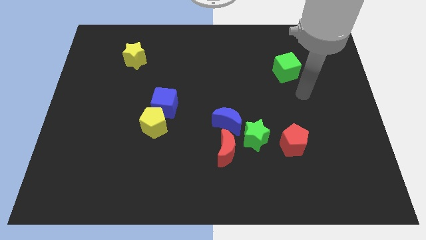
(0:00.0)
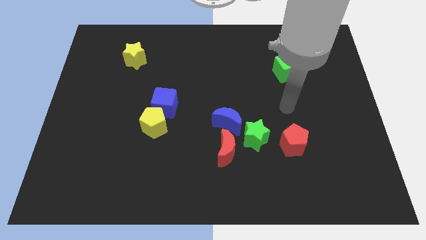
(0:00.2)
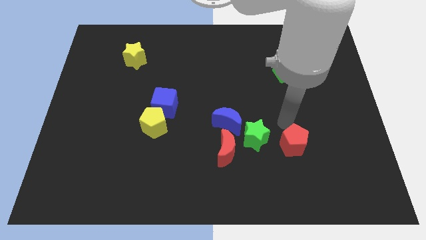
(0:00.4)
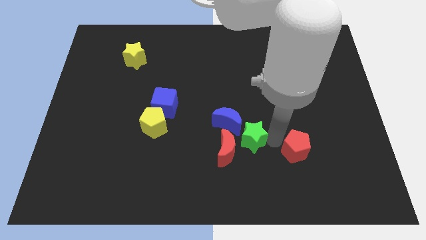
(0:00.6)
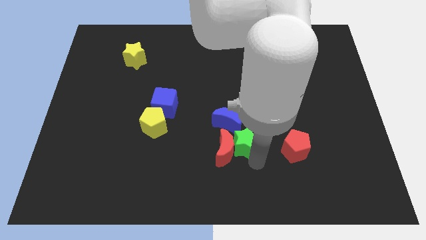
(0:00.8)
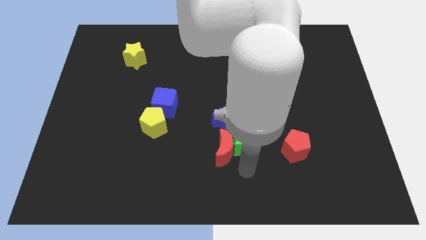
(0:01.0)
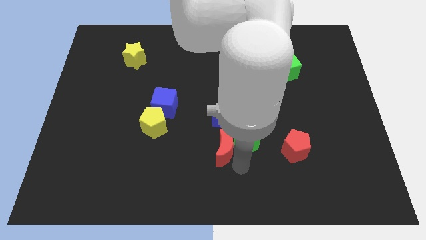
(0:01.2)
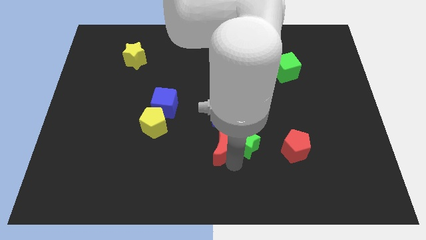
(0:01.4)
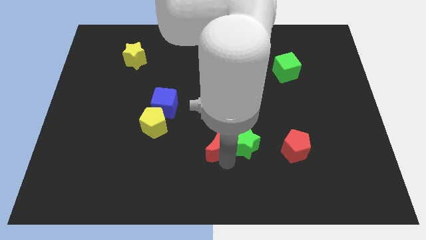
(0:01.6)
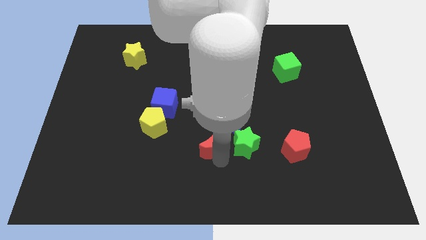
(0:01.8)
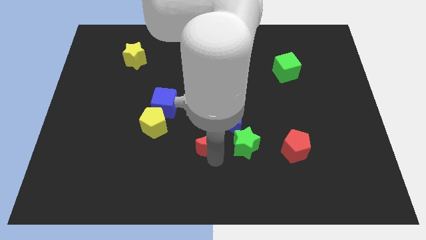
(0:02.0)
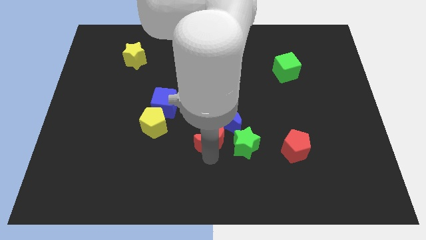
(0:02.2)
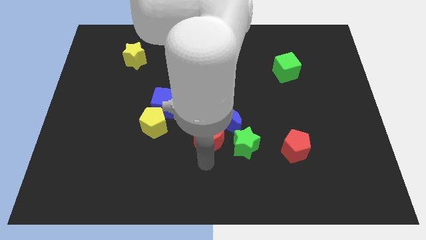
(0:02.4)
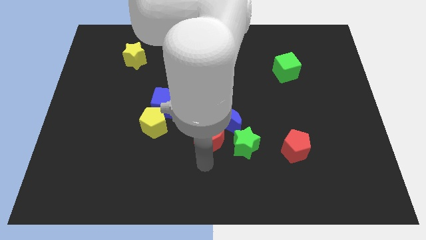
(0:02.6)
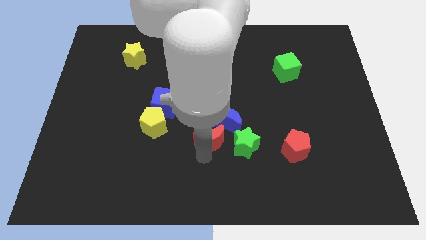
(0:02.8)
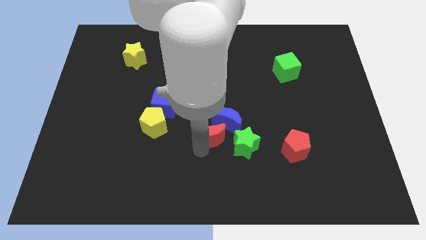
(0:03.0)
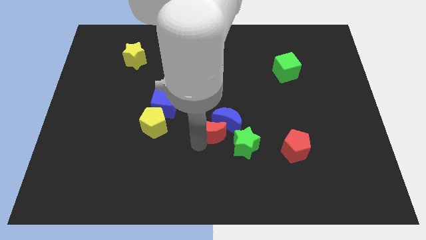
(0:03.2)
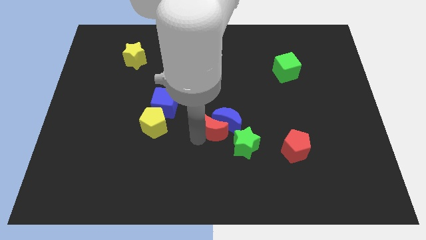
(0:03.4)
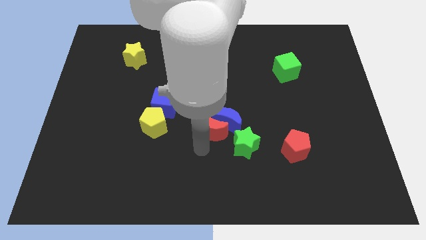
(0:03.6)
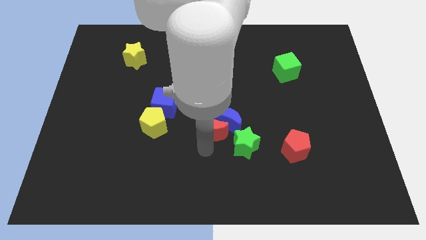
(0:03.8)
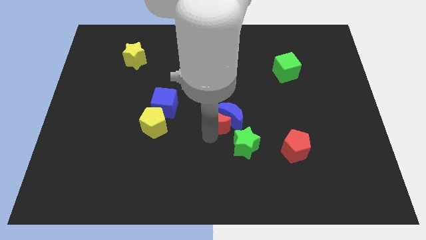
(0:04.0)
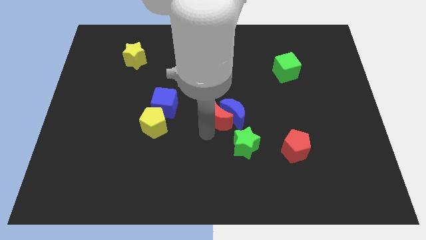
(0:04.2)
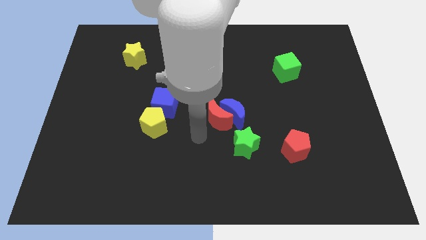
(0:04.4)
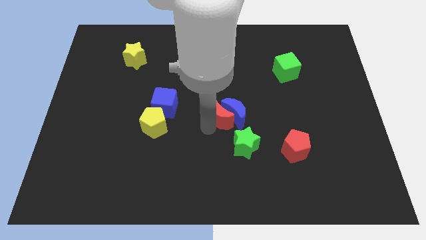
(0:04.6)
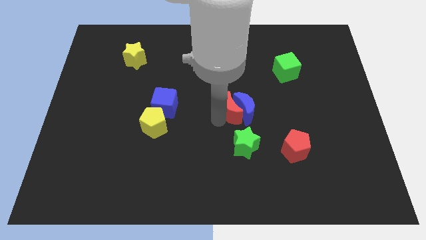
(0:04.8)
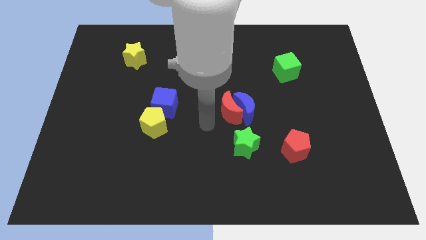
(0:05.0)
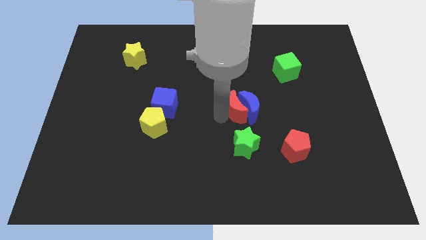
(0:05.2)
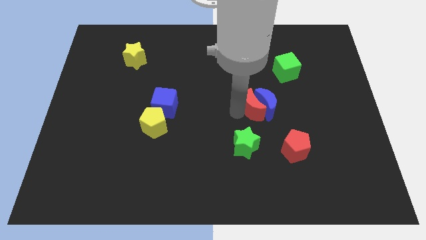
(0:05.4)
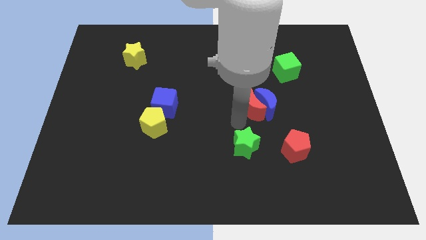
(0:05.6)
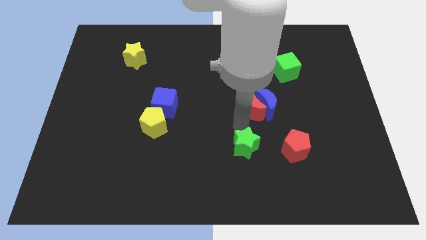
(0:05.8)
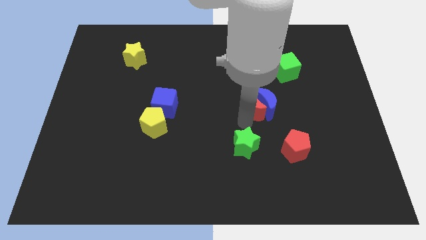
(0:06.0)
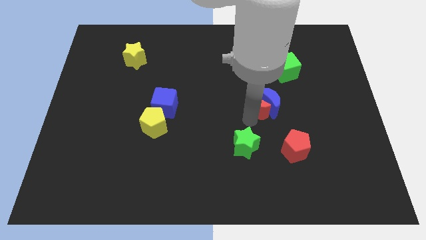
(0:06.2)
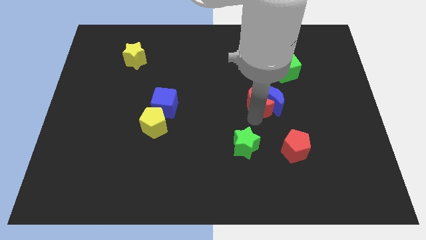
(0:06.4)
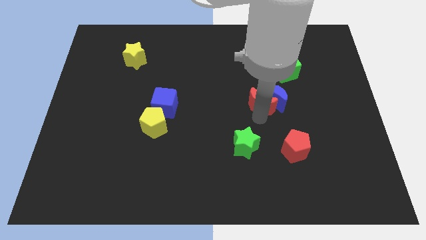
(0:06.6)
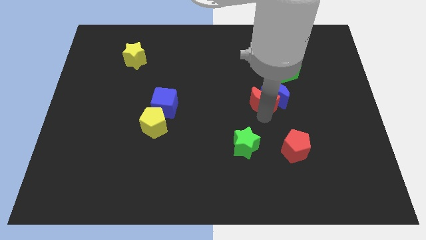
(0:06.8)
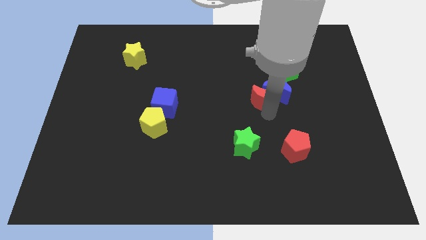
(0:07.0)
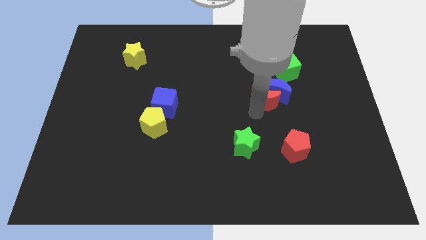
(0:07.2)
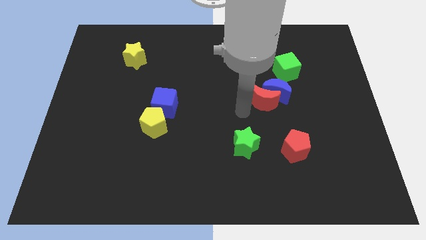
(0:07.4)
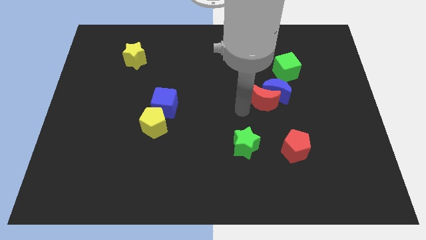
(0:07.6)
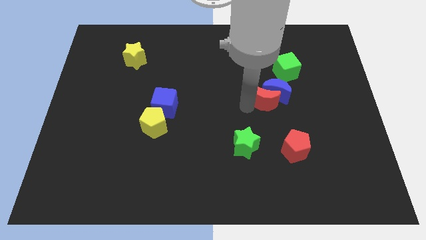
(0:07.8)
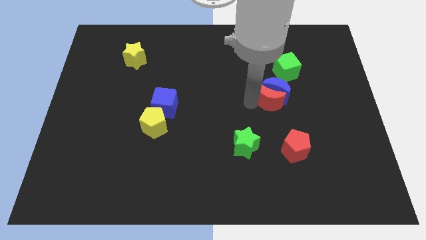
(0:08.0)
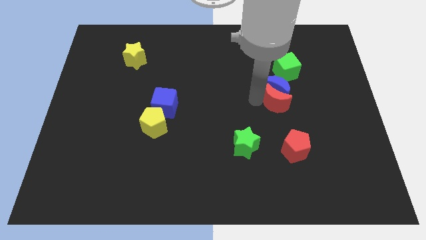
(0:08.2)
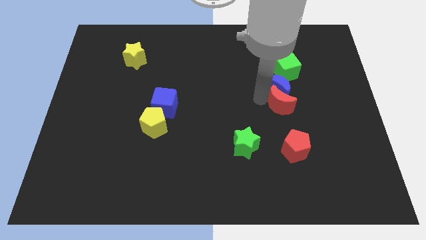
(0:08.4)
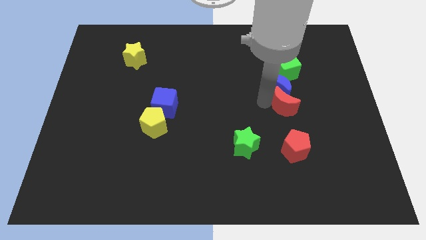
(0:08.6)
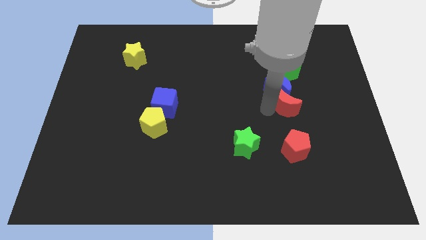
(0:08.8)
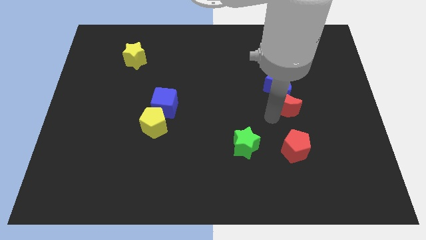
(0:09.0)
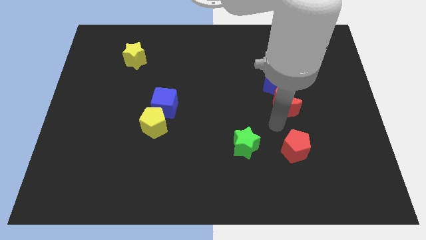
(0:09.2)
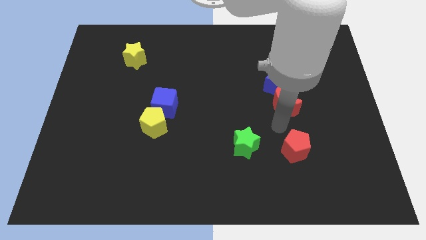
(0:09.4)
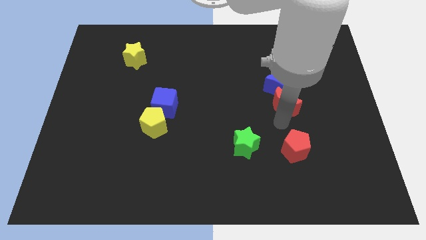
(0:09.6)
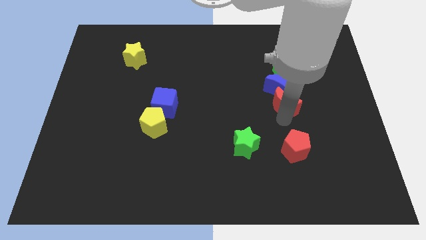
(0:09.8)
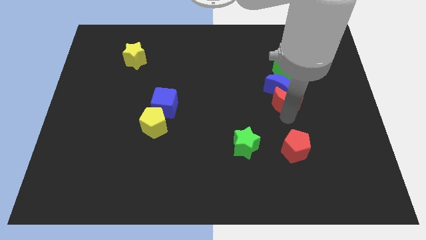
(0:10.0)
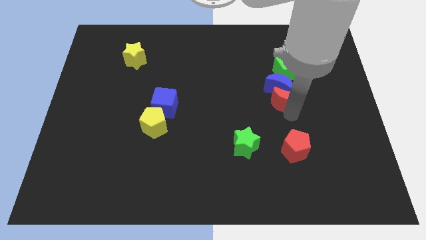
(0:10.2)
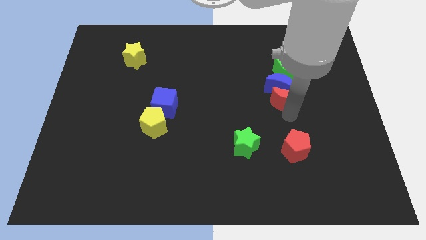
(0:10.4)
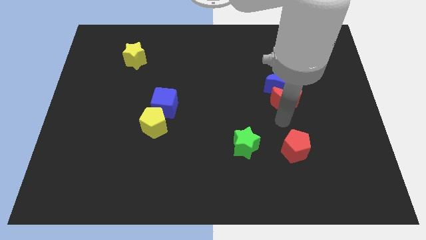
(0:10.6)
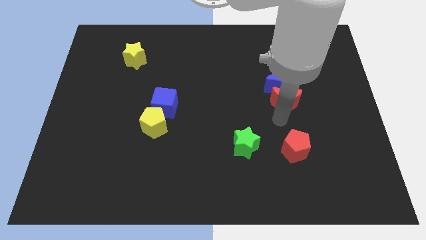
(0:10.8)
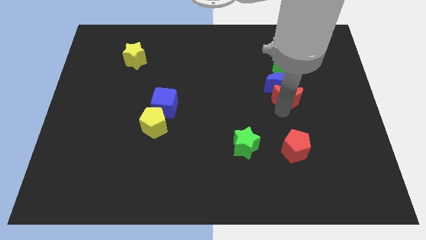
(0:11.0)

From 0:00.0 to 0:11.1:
move the red moon up and right diagonally

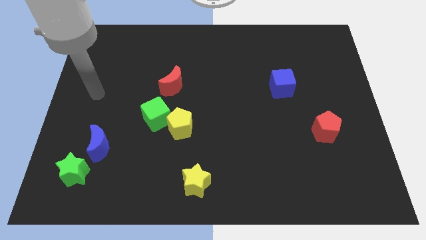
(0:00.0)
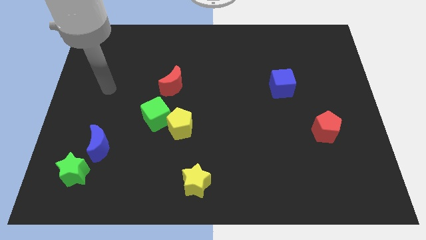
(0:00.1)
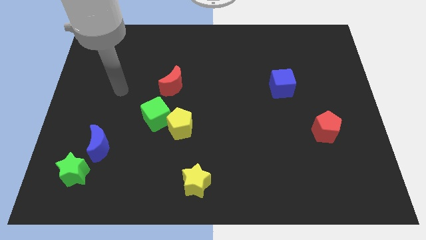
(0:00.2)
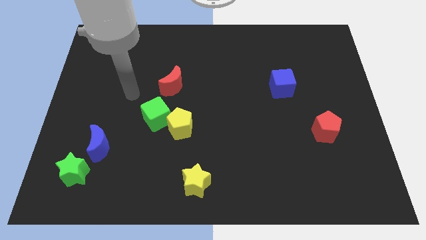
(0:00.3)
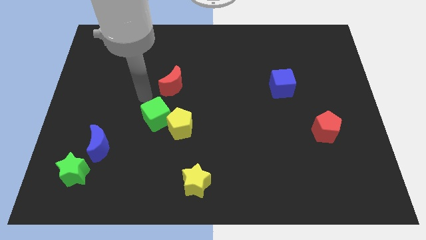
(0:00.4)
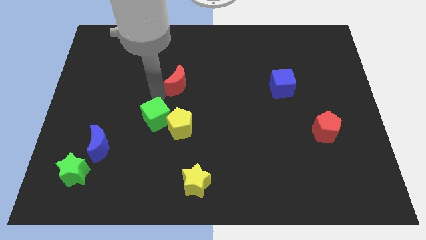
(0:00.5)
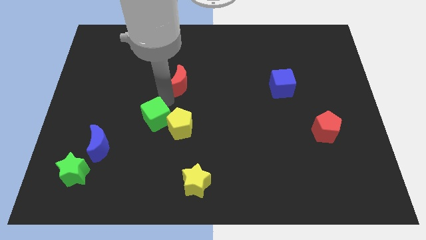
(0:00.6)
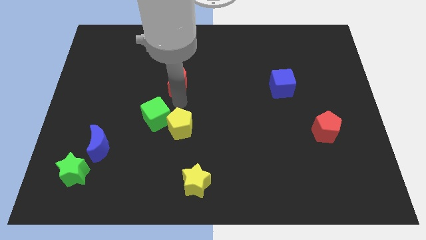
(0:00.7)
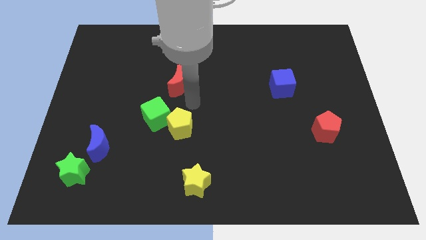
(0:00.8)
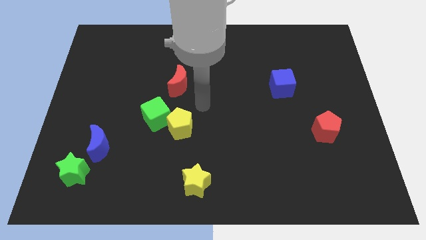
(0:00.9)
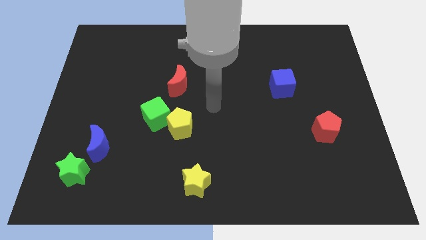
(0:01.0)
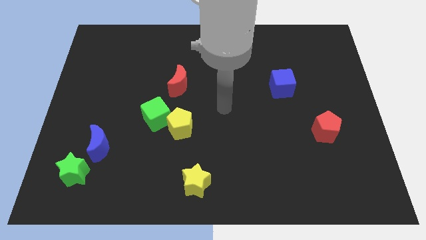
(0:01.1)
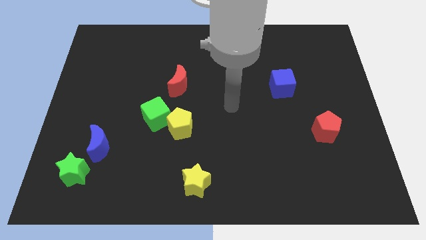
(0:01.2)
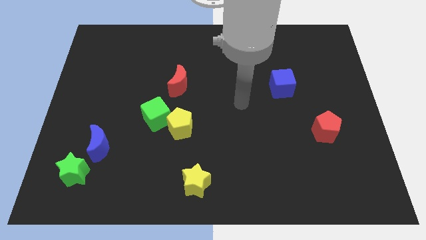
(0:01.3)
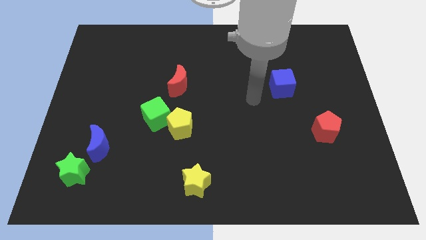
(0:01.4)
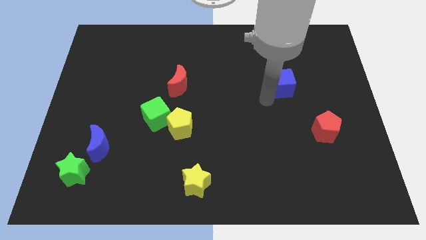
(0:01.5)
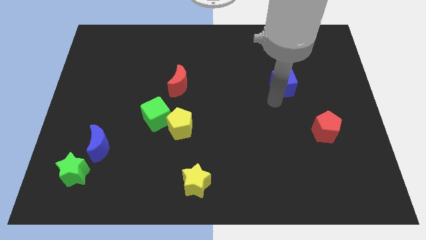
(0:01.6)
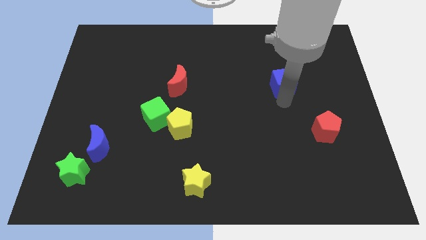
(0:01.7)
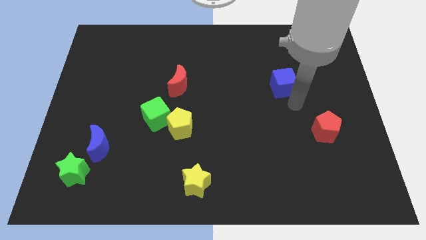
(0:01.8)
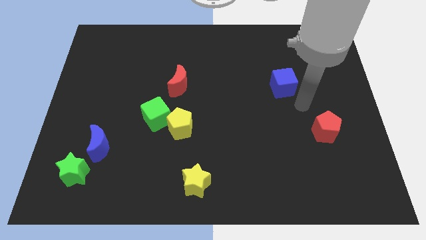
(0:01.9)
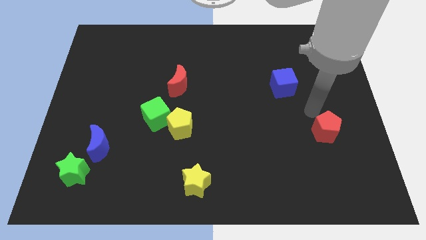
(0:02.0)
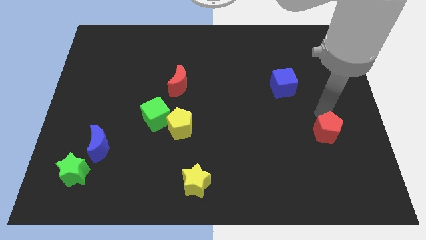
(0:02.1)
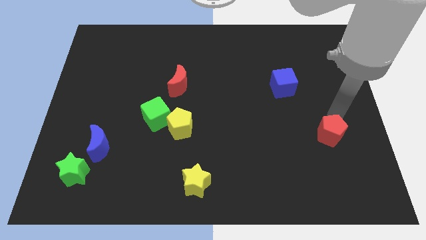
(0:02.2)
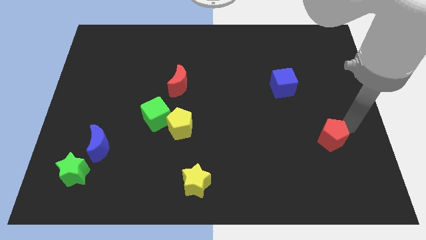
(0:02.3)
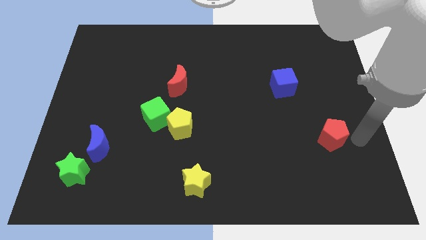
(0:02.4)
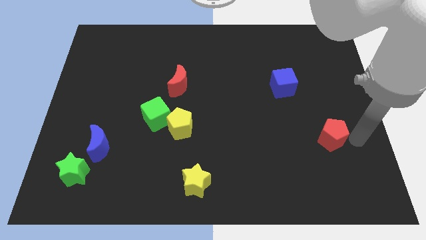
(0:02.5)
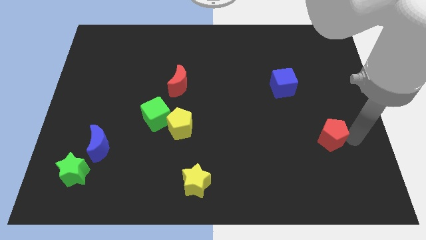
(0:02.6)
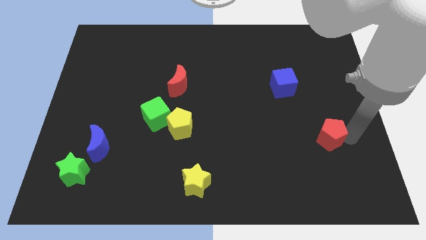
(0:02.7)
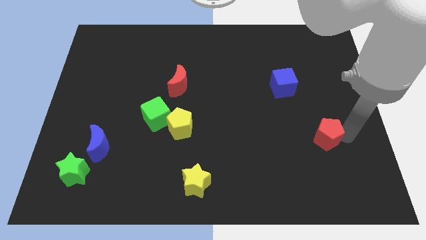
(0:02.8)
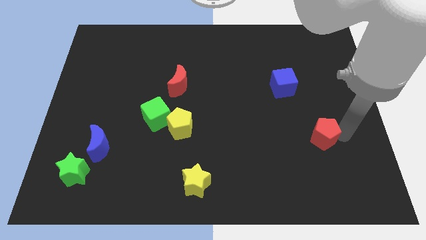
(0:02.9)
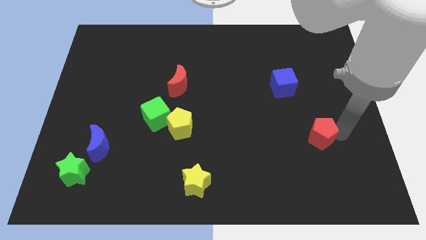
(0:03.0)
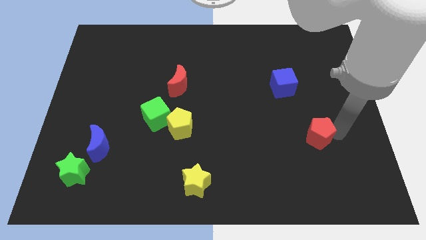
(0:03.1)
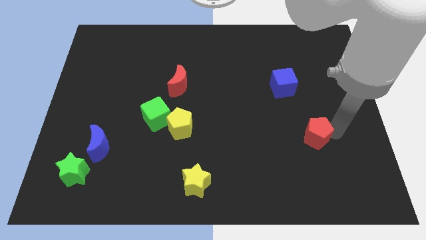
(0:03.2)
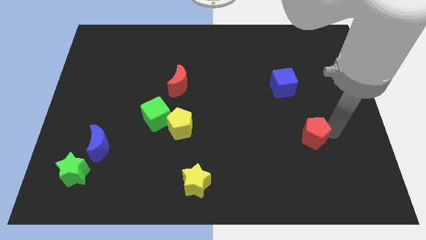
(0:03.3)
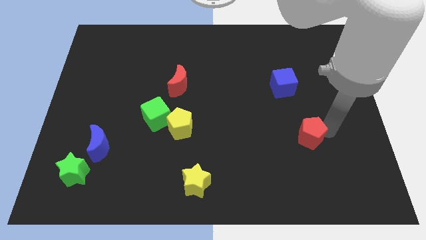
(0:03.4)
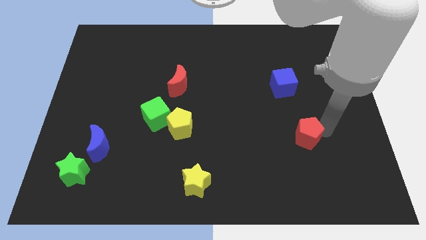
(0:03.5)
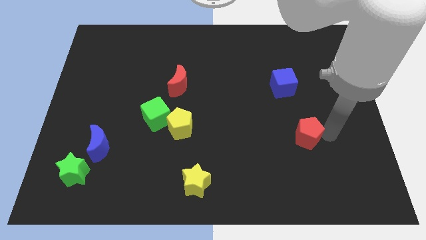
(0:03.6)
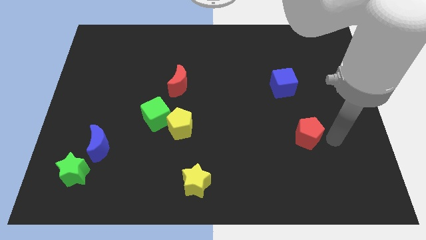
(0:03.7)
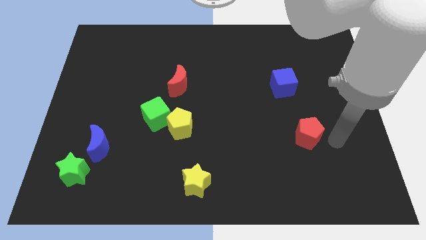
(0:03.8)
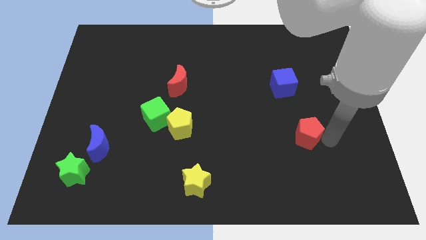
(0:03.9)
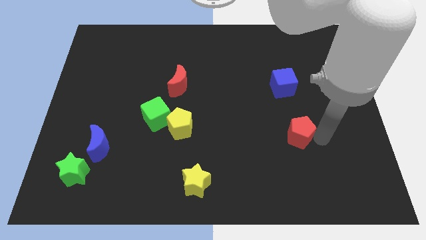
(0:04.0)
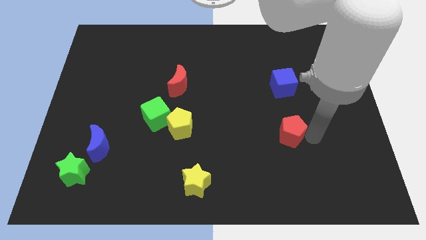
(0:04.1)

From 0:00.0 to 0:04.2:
slightly slide the red pentagon to the left
